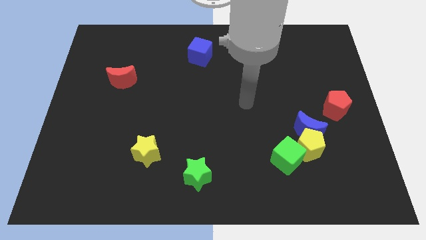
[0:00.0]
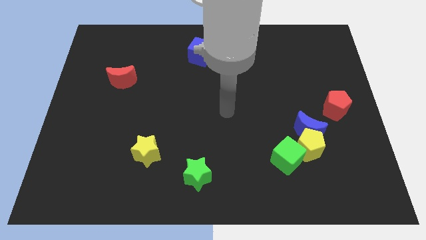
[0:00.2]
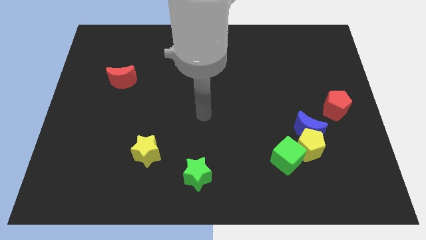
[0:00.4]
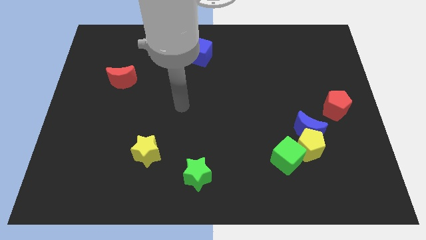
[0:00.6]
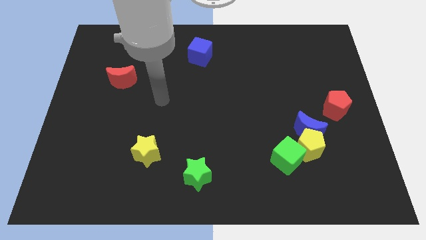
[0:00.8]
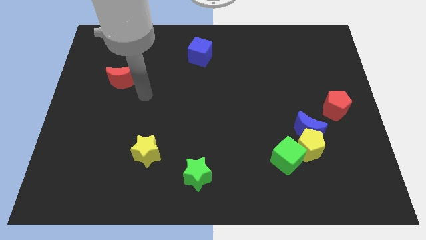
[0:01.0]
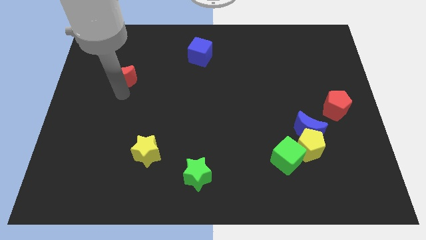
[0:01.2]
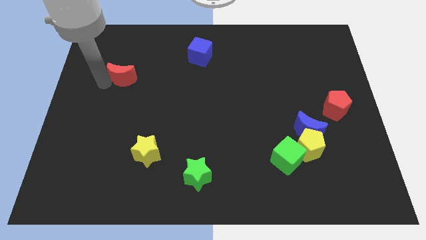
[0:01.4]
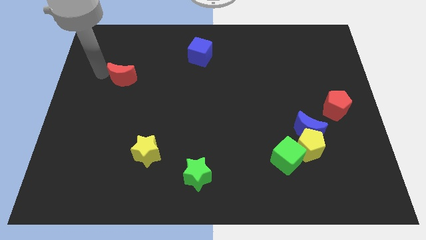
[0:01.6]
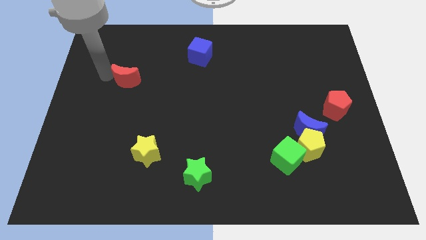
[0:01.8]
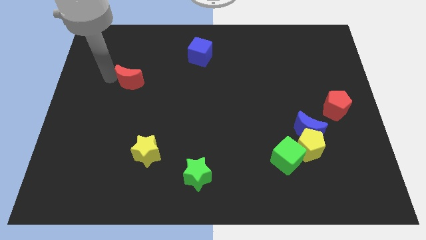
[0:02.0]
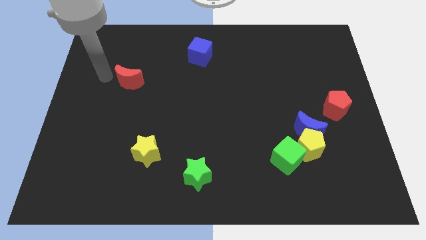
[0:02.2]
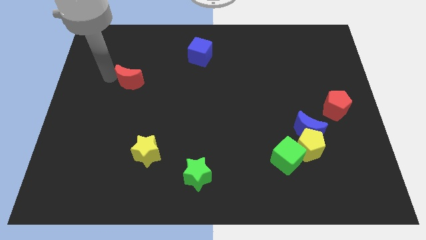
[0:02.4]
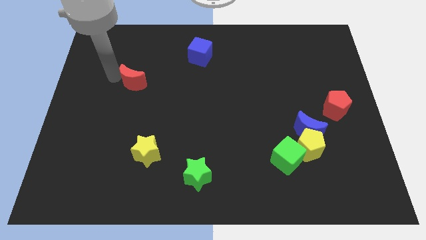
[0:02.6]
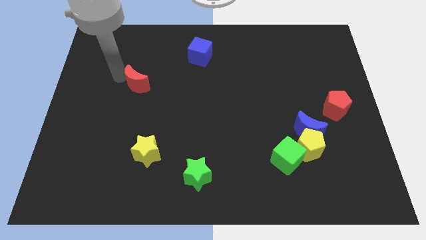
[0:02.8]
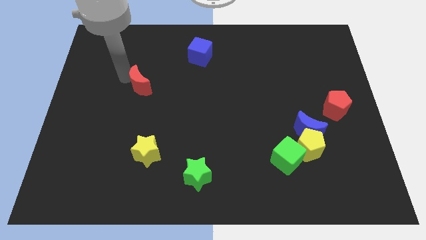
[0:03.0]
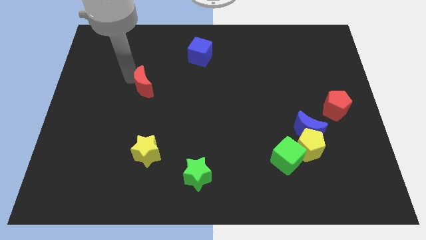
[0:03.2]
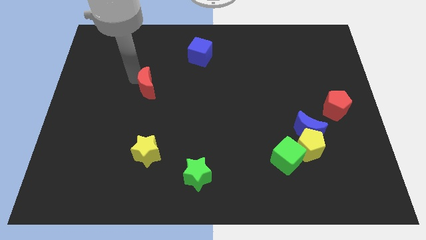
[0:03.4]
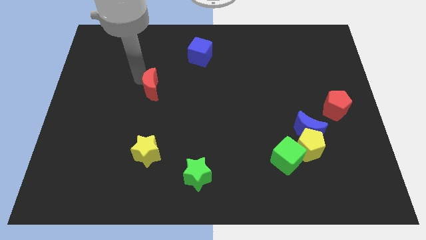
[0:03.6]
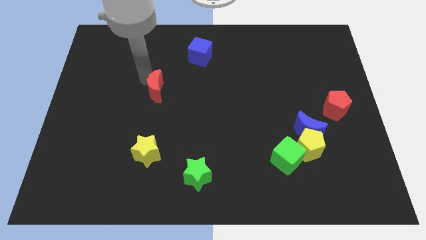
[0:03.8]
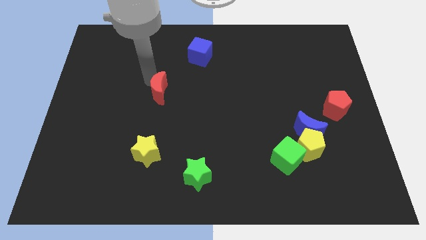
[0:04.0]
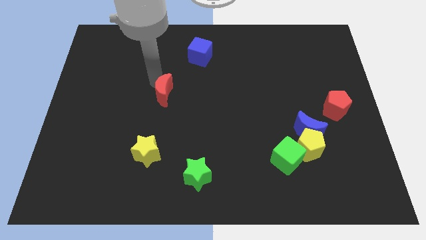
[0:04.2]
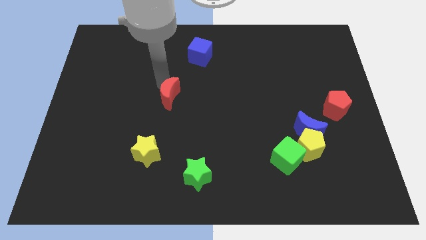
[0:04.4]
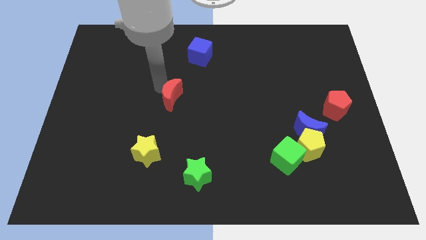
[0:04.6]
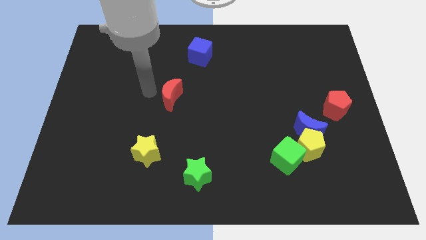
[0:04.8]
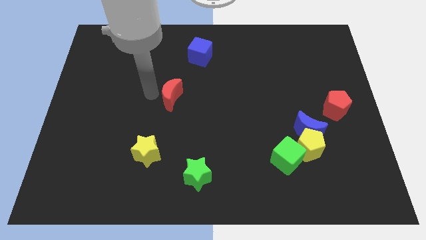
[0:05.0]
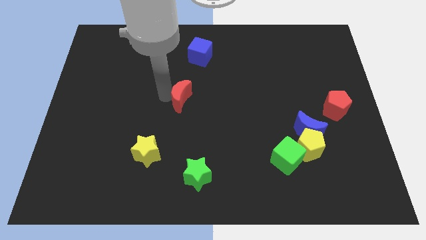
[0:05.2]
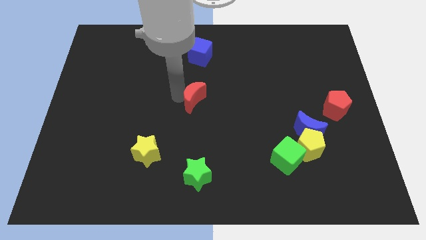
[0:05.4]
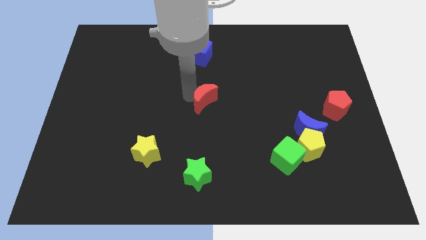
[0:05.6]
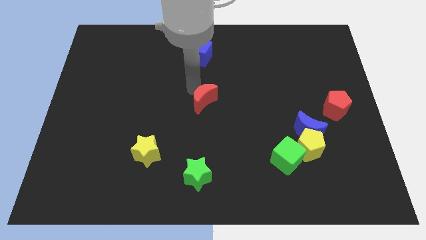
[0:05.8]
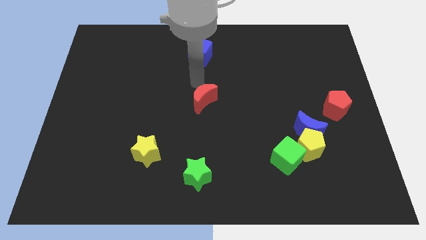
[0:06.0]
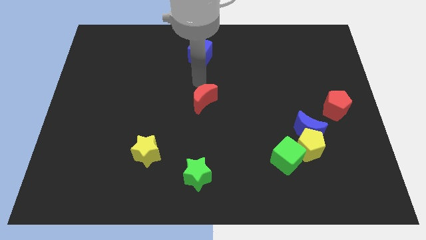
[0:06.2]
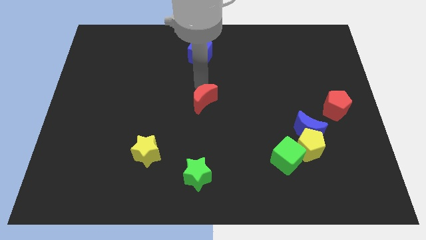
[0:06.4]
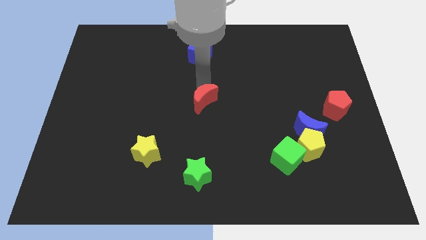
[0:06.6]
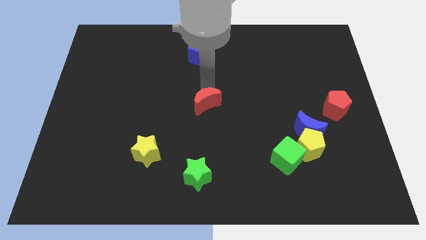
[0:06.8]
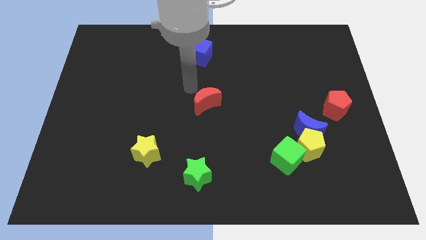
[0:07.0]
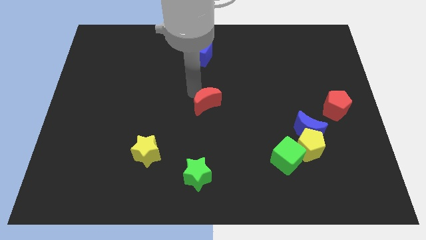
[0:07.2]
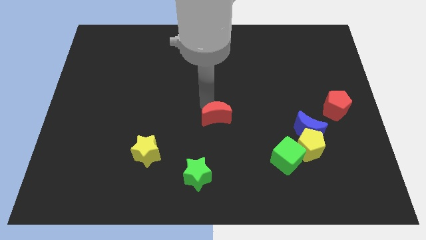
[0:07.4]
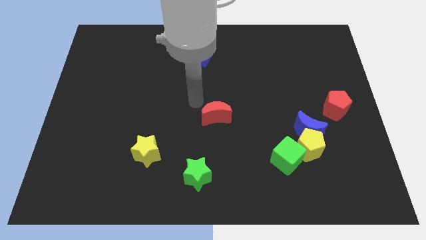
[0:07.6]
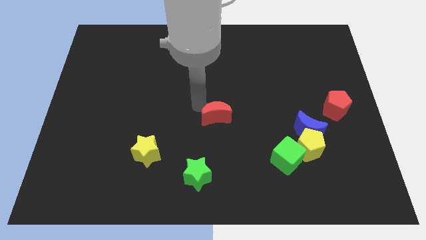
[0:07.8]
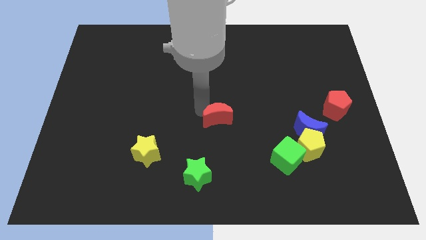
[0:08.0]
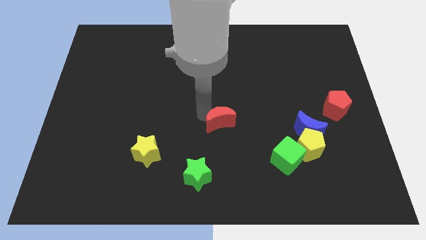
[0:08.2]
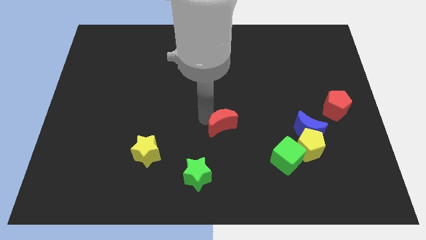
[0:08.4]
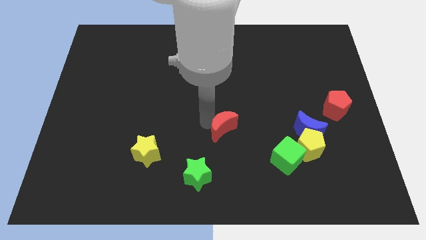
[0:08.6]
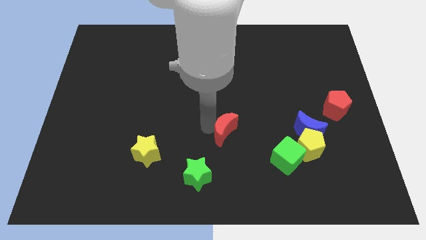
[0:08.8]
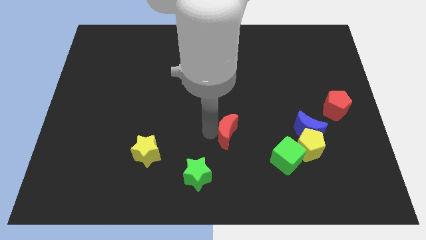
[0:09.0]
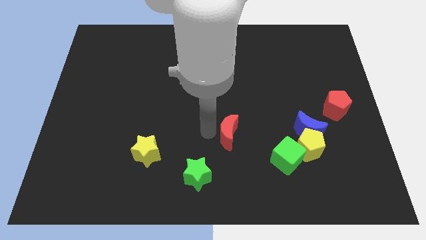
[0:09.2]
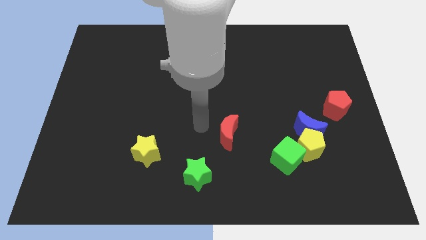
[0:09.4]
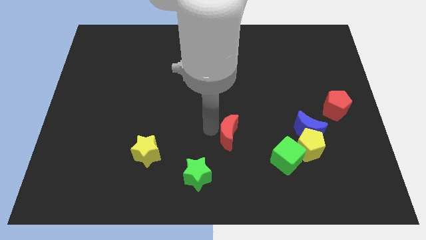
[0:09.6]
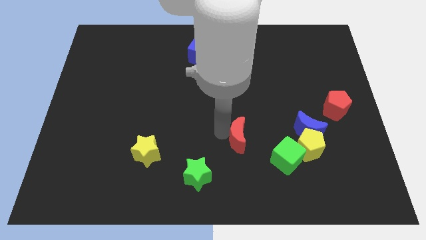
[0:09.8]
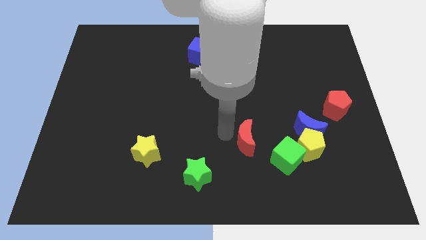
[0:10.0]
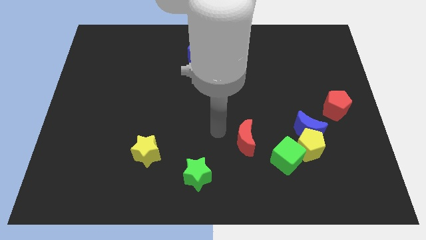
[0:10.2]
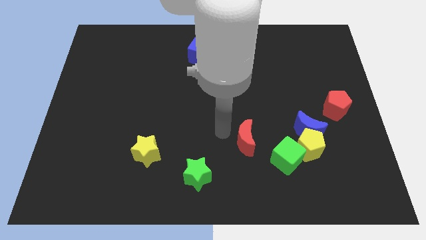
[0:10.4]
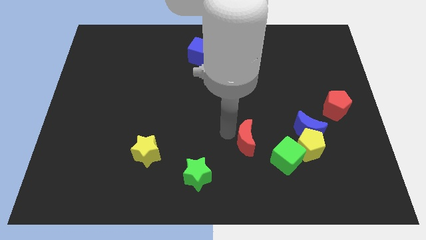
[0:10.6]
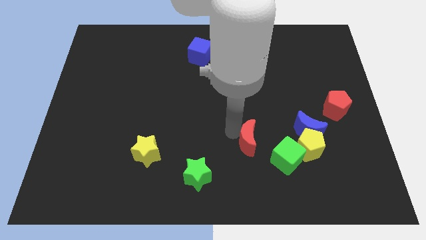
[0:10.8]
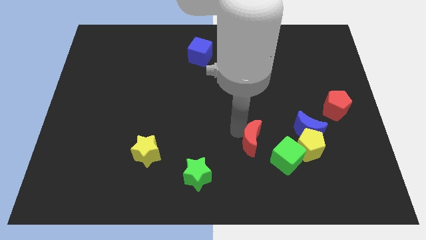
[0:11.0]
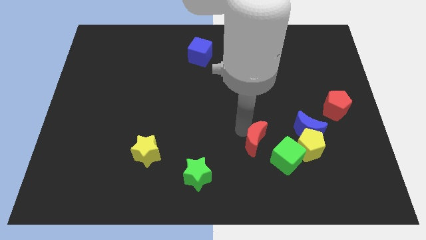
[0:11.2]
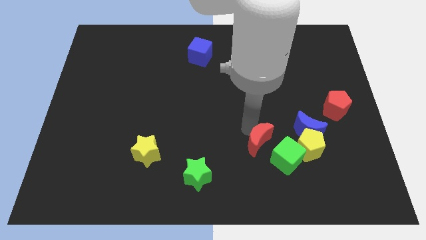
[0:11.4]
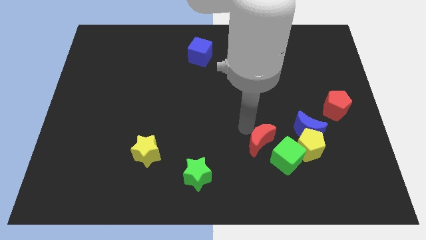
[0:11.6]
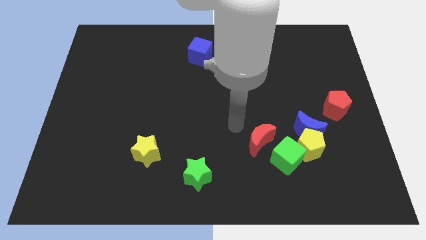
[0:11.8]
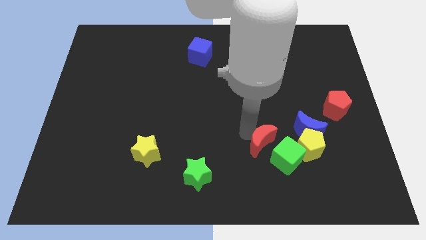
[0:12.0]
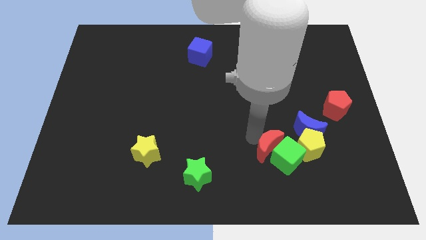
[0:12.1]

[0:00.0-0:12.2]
put the red moon close to the green cube
